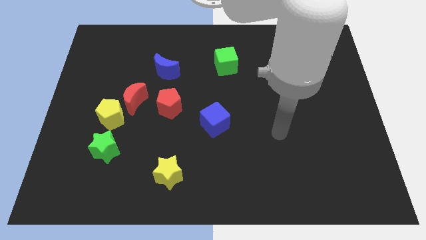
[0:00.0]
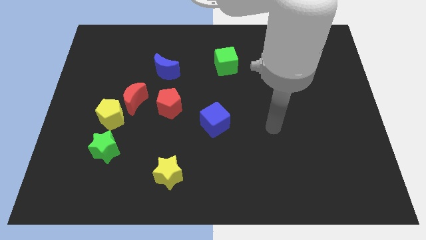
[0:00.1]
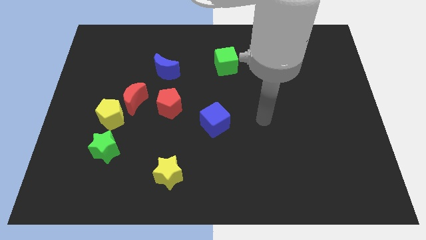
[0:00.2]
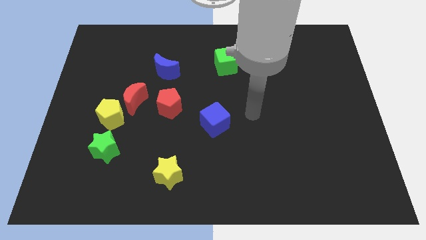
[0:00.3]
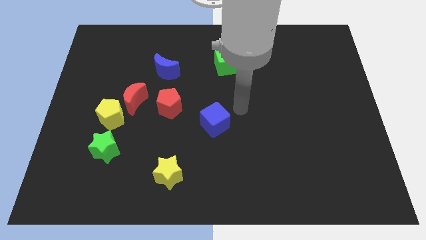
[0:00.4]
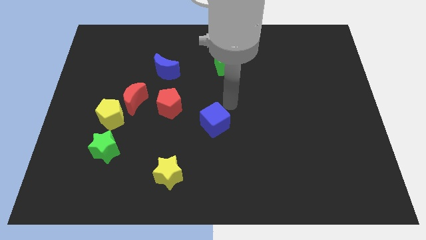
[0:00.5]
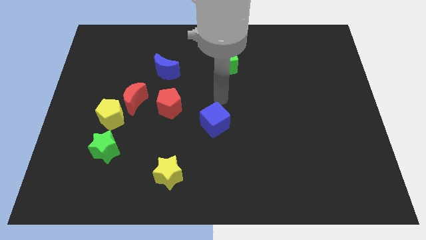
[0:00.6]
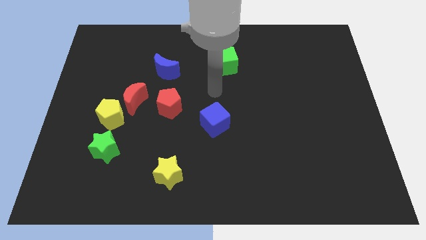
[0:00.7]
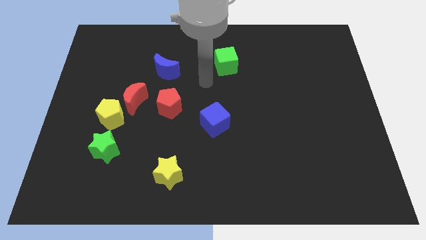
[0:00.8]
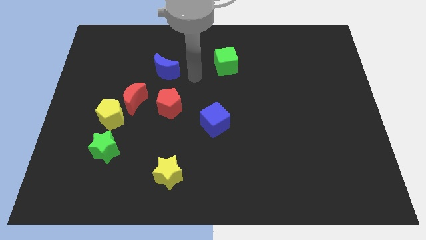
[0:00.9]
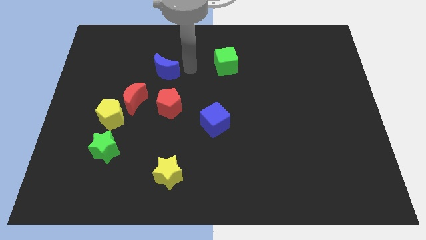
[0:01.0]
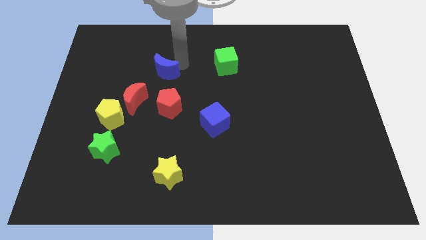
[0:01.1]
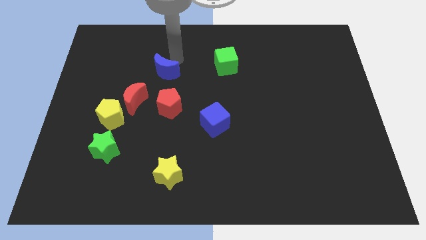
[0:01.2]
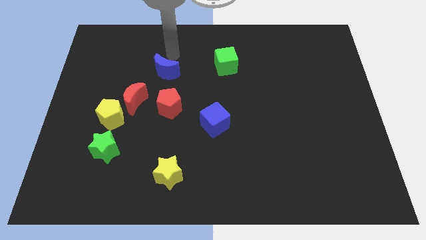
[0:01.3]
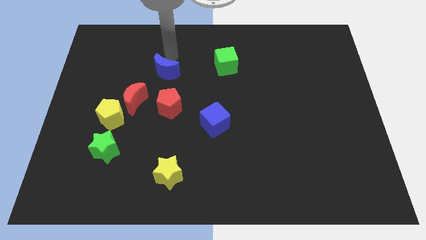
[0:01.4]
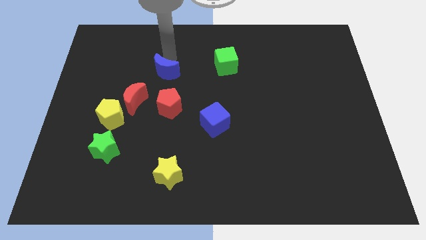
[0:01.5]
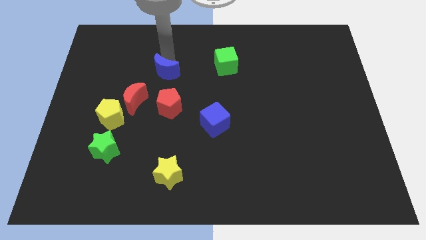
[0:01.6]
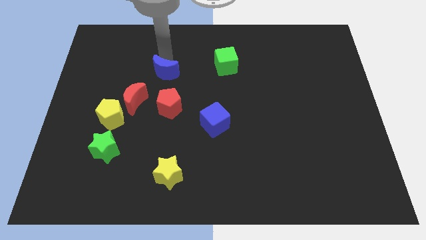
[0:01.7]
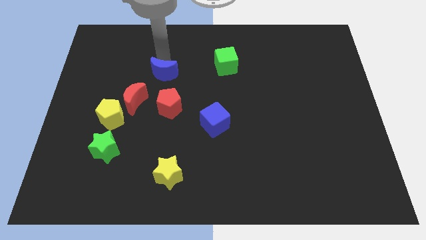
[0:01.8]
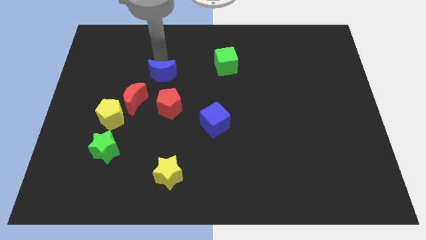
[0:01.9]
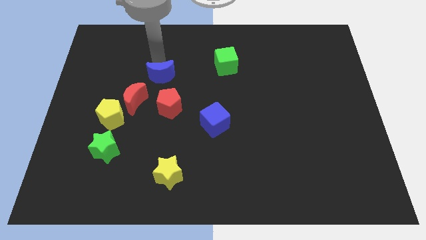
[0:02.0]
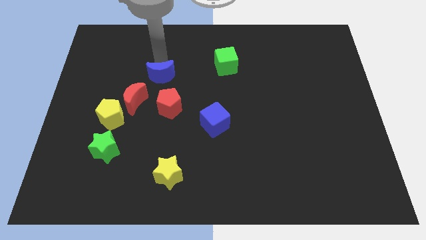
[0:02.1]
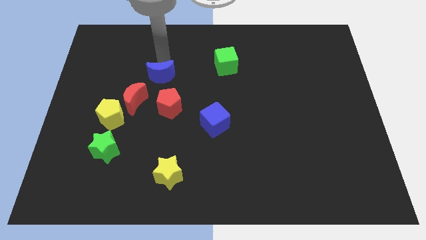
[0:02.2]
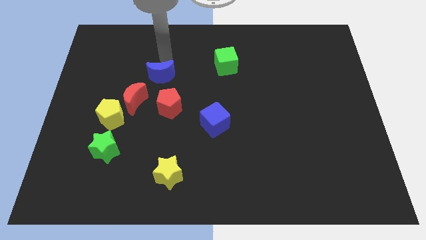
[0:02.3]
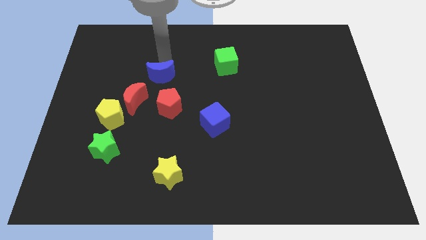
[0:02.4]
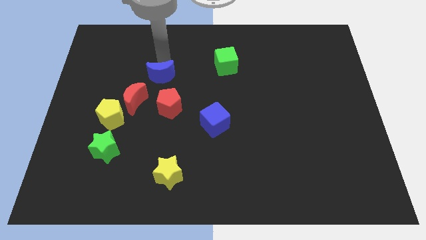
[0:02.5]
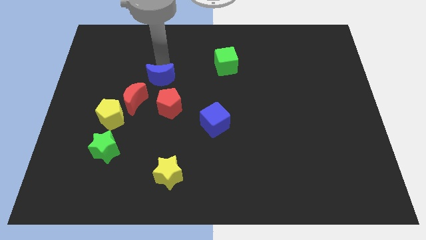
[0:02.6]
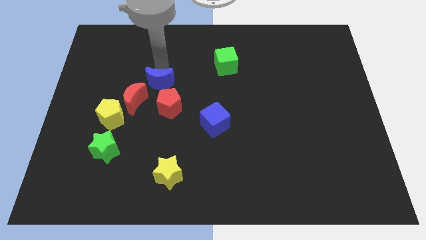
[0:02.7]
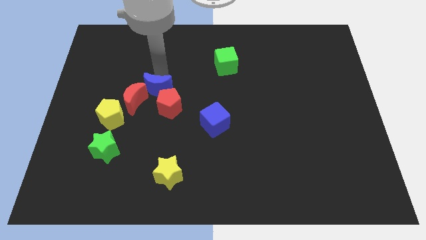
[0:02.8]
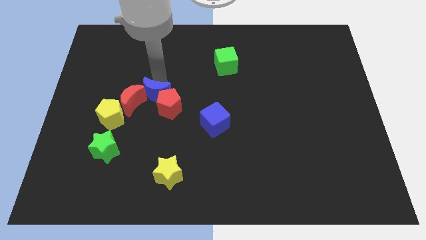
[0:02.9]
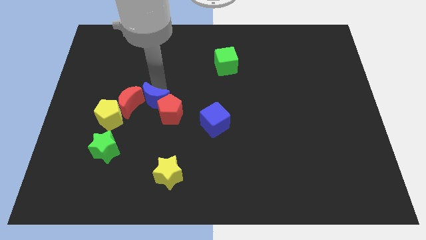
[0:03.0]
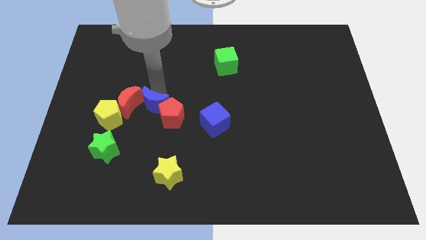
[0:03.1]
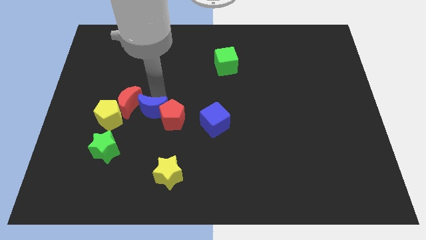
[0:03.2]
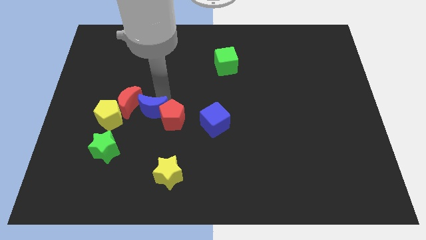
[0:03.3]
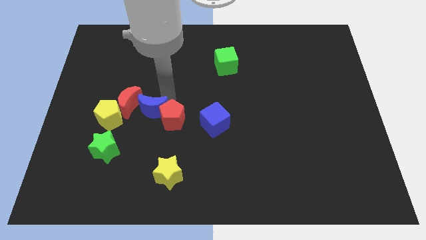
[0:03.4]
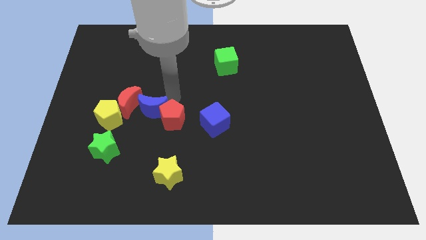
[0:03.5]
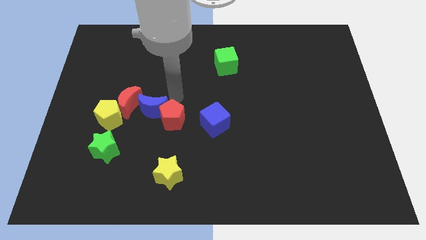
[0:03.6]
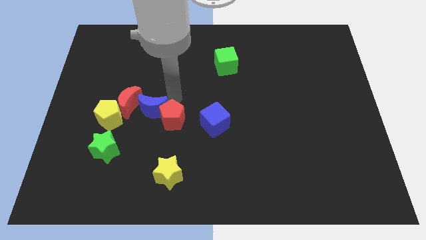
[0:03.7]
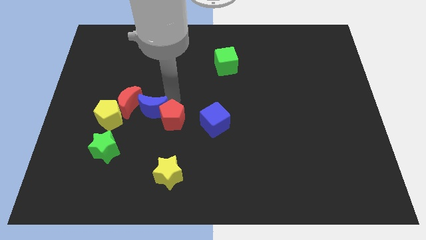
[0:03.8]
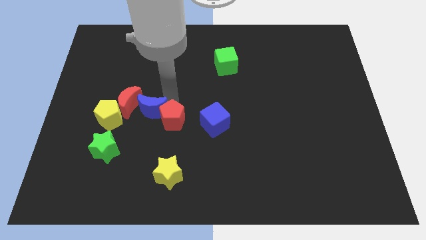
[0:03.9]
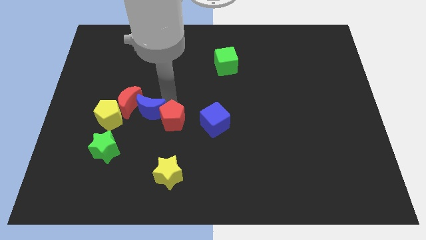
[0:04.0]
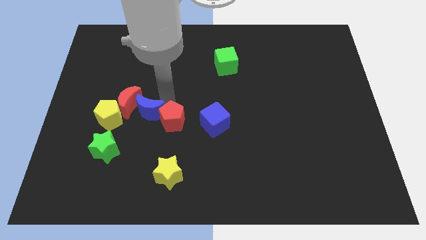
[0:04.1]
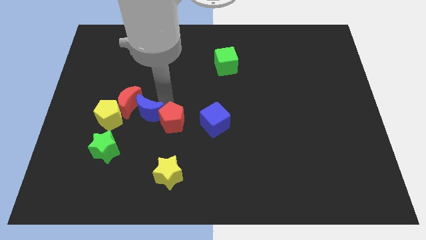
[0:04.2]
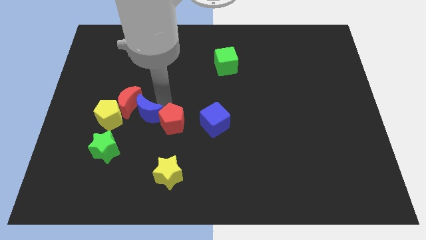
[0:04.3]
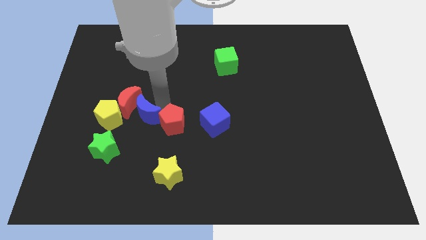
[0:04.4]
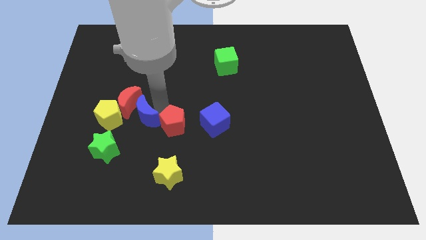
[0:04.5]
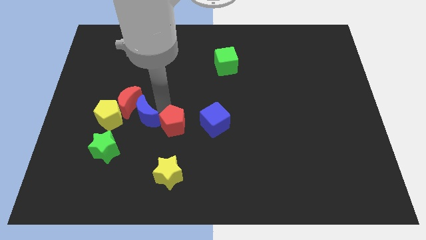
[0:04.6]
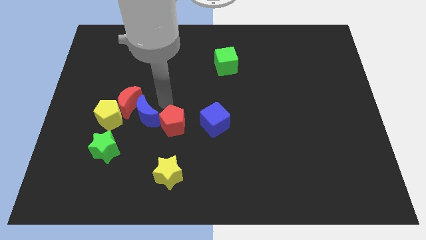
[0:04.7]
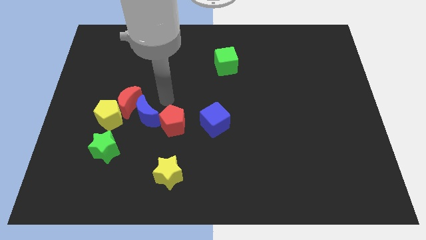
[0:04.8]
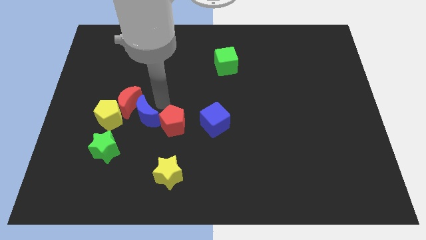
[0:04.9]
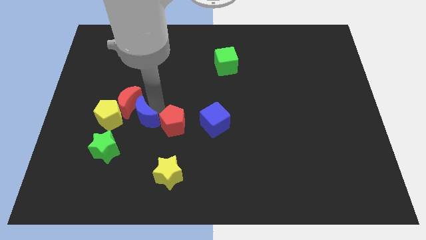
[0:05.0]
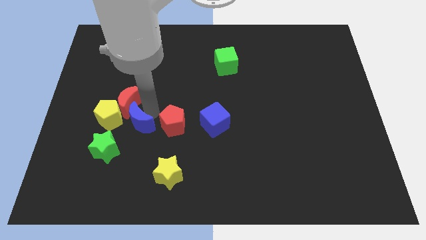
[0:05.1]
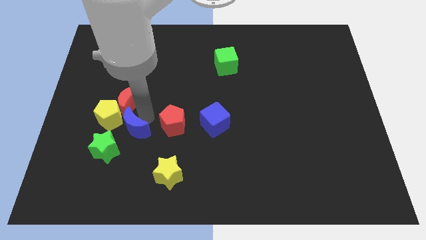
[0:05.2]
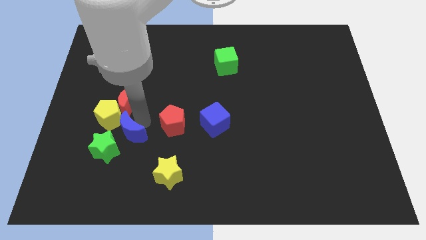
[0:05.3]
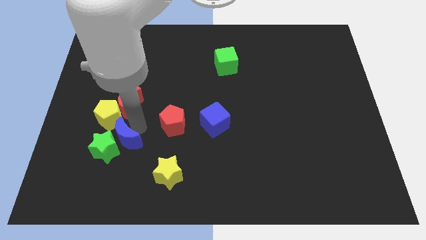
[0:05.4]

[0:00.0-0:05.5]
put the blue moon next to the green star
